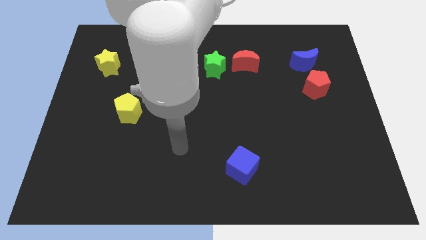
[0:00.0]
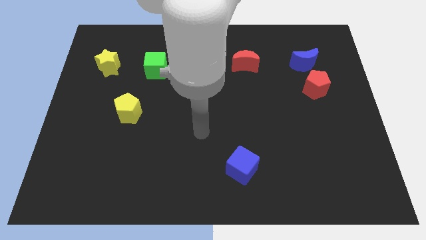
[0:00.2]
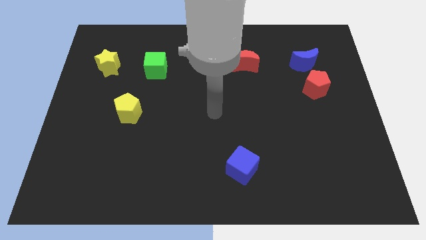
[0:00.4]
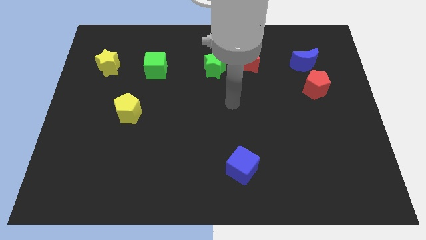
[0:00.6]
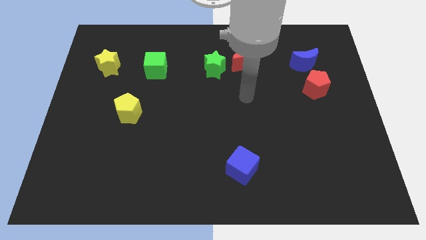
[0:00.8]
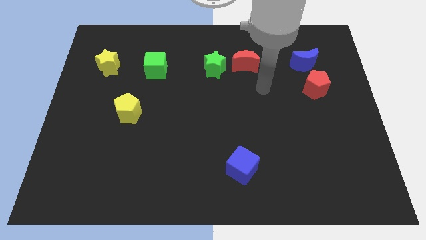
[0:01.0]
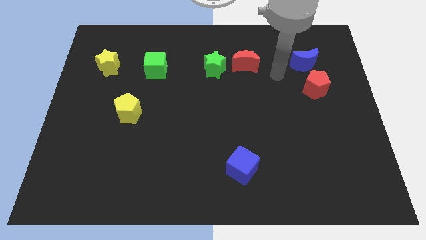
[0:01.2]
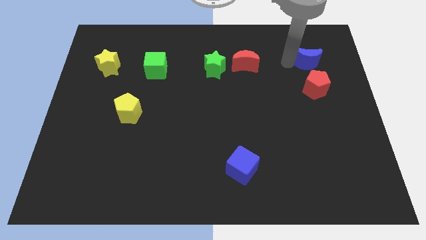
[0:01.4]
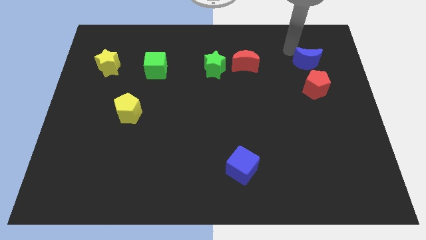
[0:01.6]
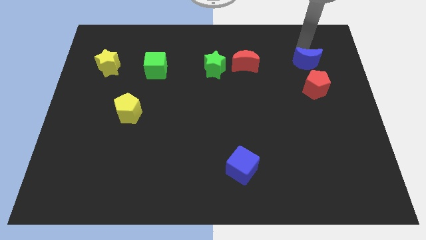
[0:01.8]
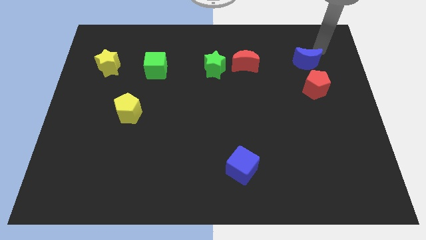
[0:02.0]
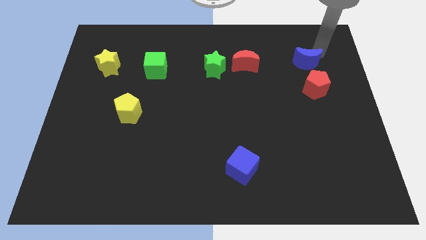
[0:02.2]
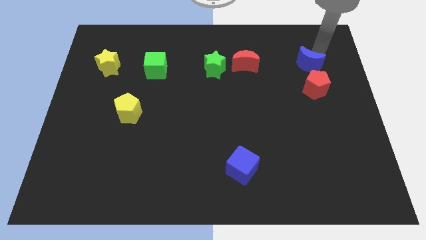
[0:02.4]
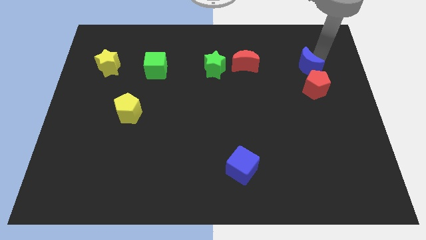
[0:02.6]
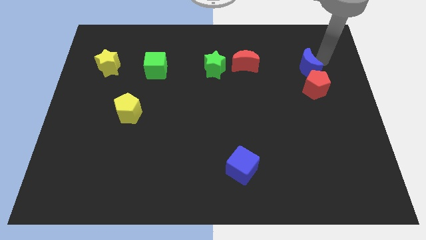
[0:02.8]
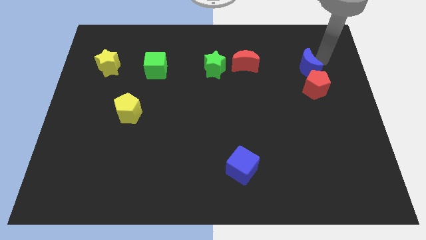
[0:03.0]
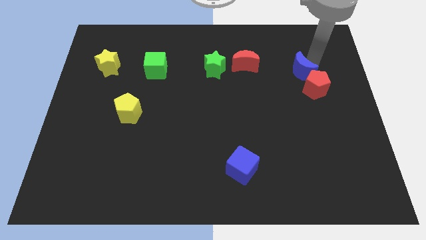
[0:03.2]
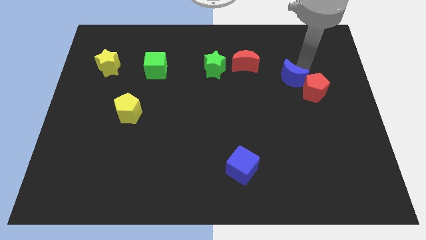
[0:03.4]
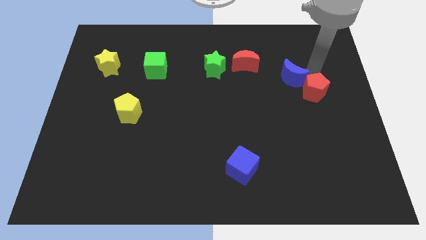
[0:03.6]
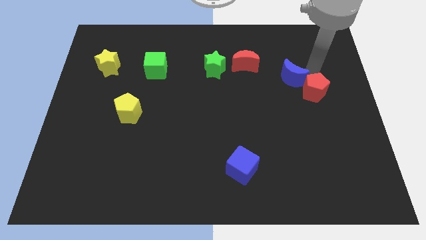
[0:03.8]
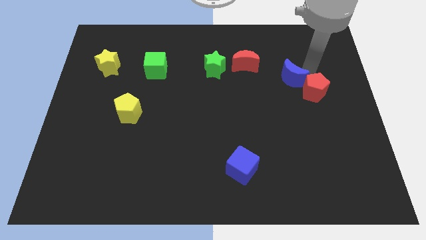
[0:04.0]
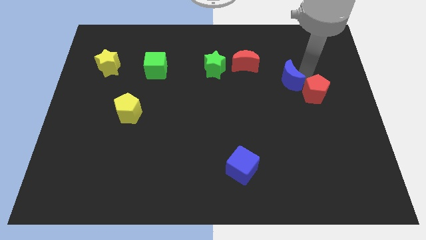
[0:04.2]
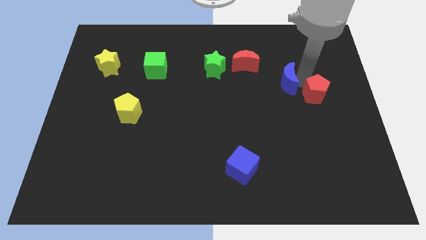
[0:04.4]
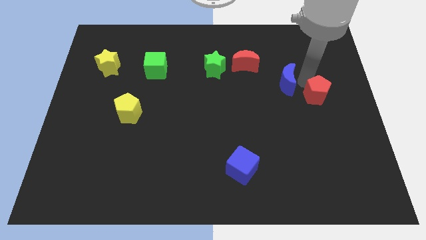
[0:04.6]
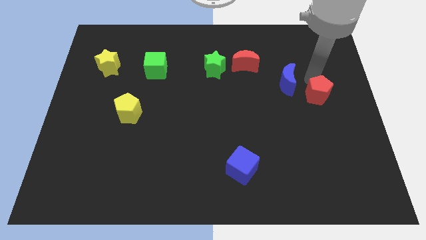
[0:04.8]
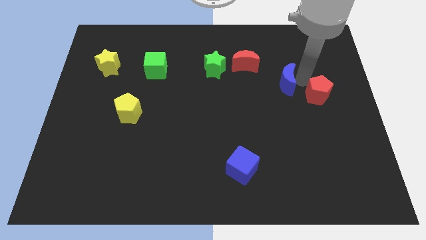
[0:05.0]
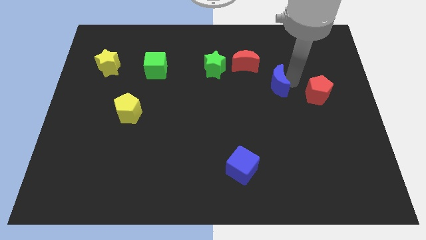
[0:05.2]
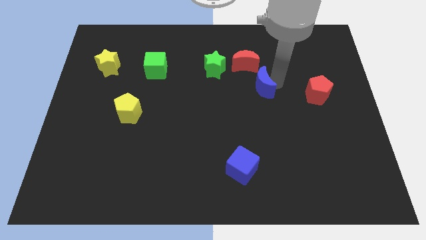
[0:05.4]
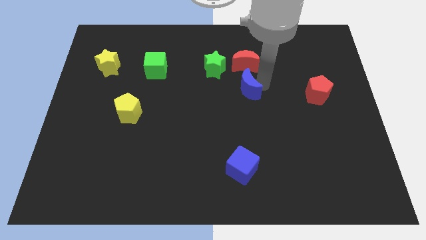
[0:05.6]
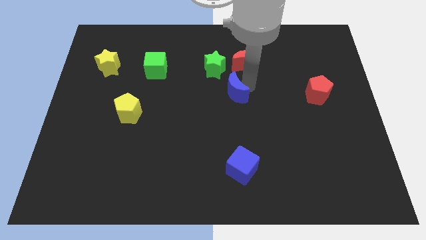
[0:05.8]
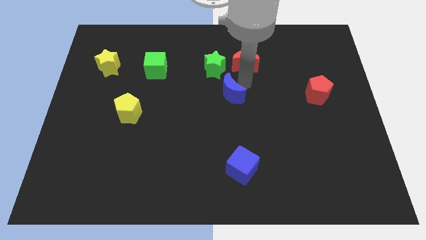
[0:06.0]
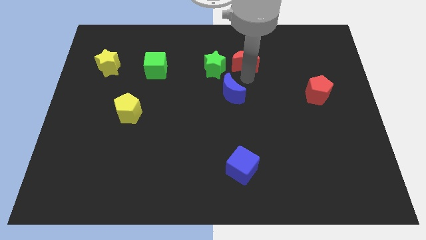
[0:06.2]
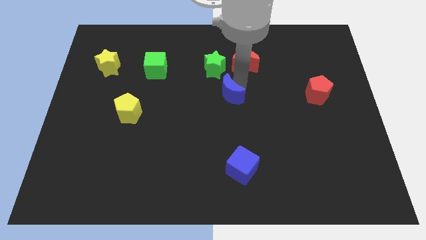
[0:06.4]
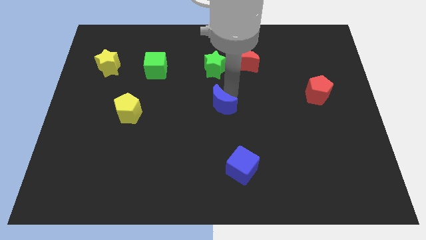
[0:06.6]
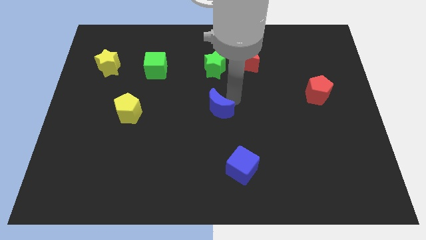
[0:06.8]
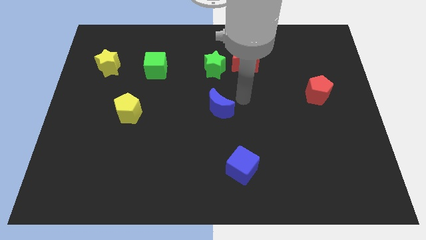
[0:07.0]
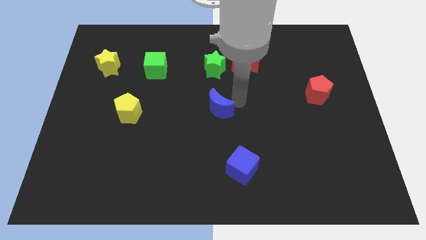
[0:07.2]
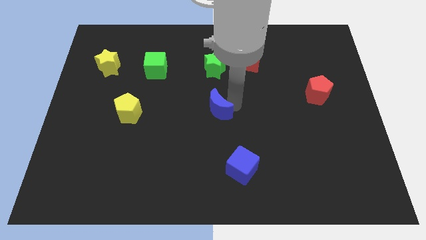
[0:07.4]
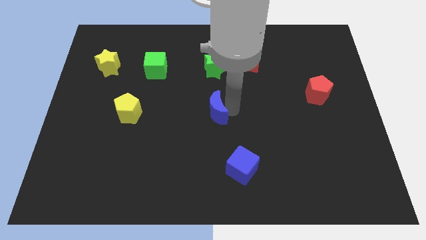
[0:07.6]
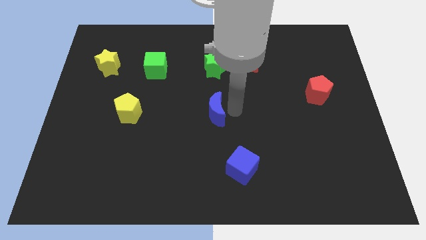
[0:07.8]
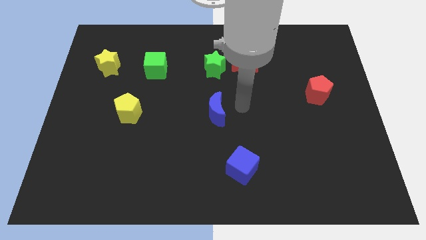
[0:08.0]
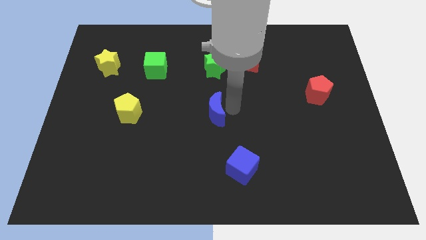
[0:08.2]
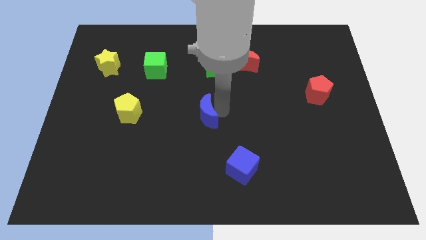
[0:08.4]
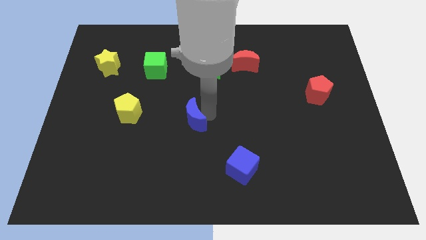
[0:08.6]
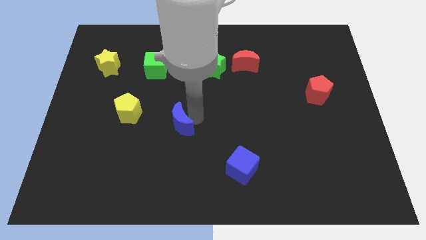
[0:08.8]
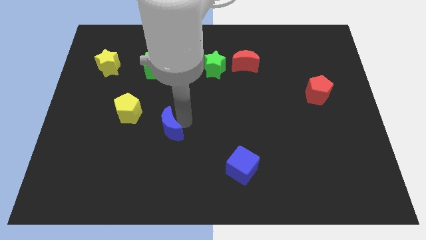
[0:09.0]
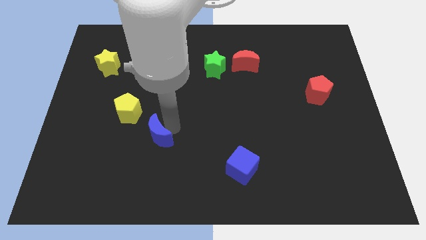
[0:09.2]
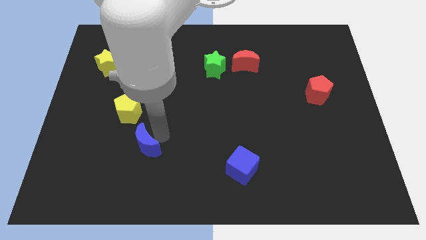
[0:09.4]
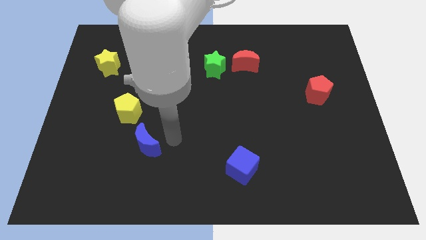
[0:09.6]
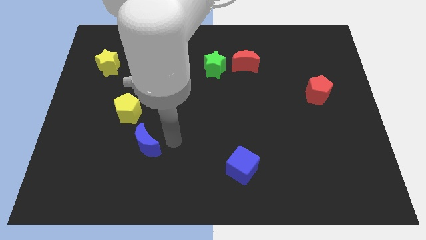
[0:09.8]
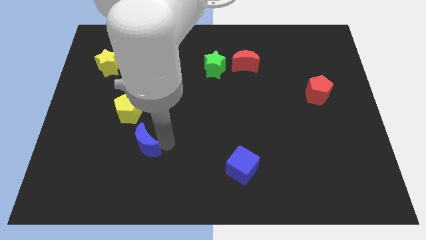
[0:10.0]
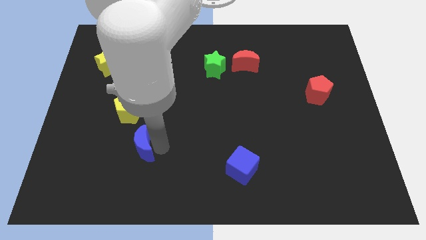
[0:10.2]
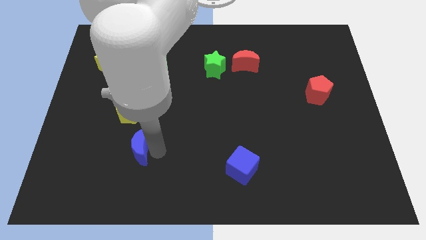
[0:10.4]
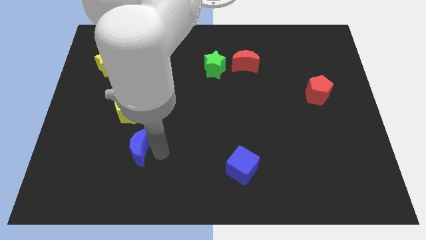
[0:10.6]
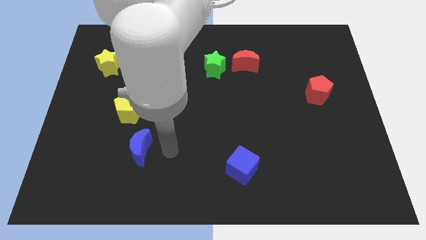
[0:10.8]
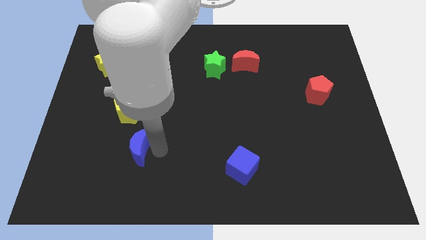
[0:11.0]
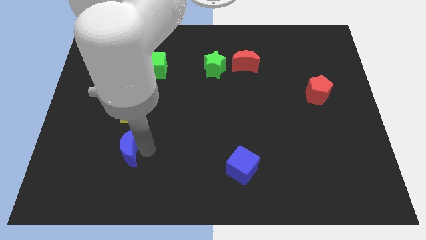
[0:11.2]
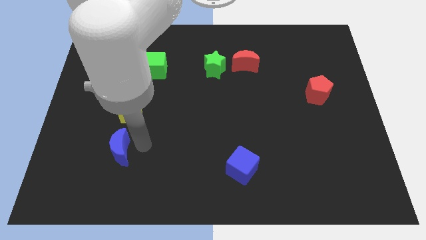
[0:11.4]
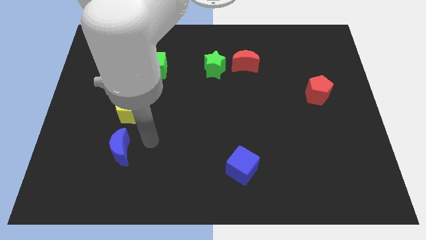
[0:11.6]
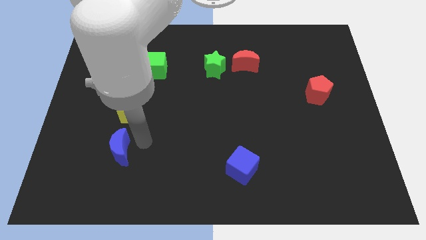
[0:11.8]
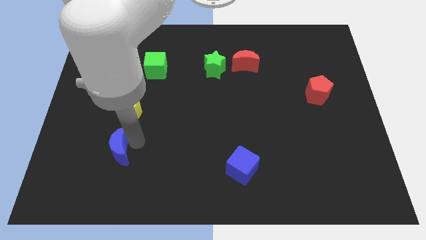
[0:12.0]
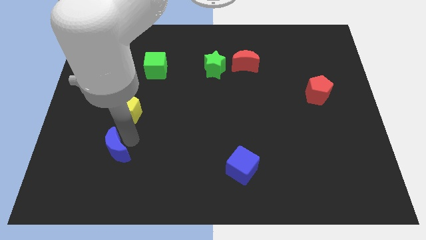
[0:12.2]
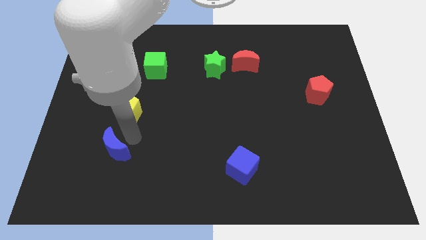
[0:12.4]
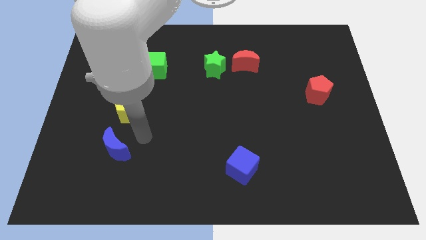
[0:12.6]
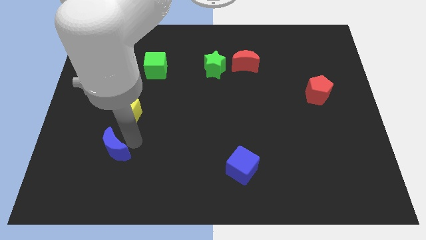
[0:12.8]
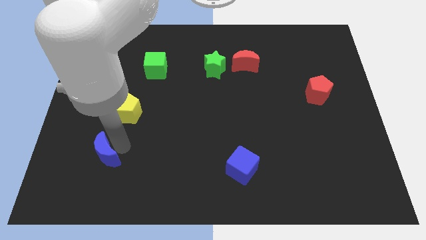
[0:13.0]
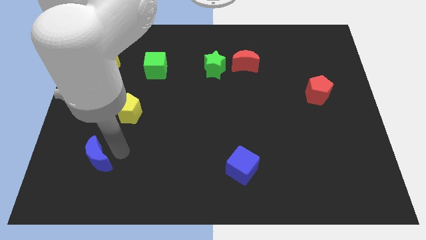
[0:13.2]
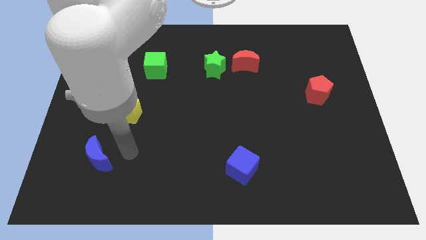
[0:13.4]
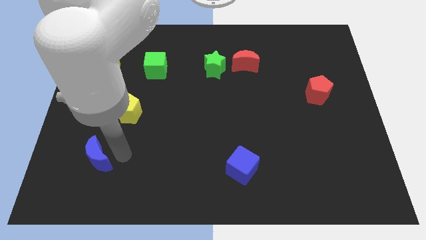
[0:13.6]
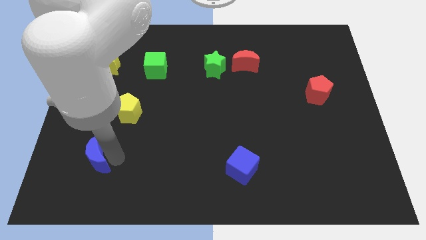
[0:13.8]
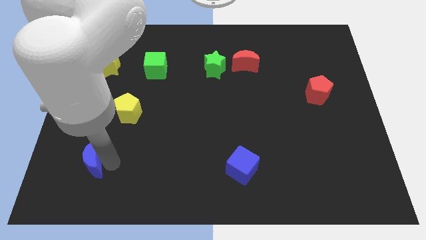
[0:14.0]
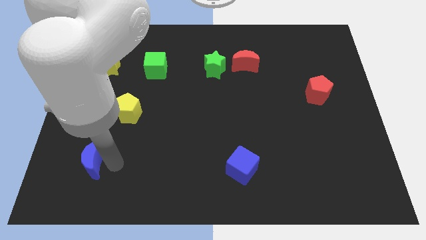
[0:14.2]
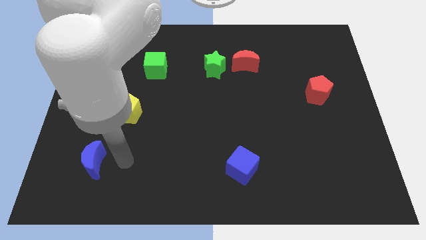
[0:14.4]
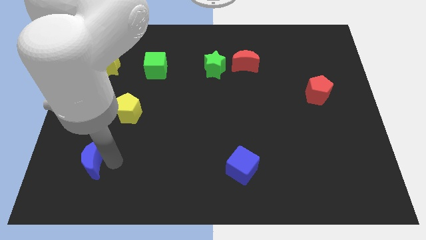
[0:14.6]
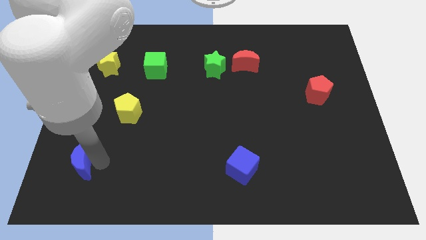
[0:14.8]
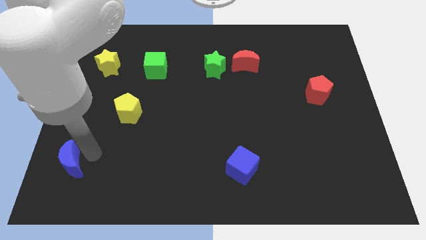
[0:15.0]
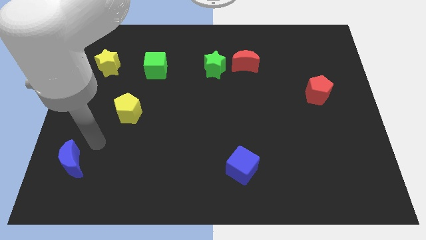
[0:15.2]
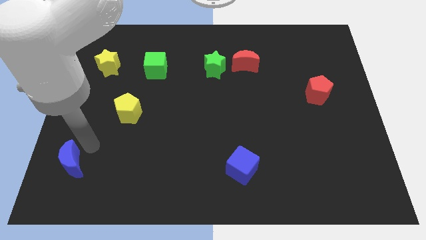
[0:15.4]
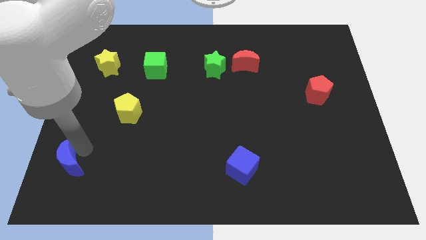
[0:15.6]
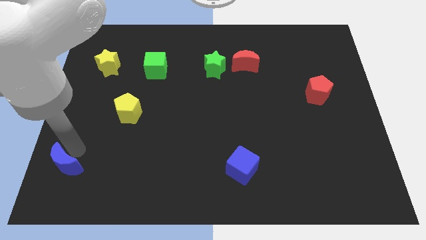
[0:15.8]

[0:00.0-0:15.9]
put the blue moon to the bottom left of the board
